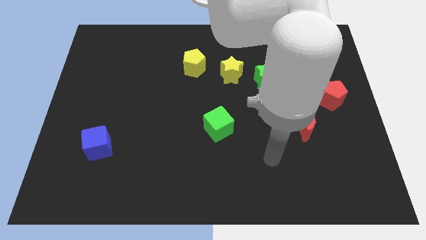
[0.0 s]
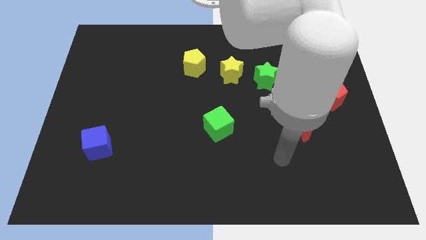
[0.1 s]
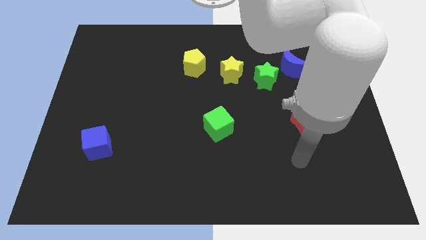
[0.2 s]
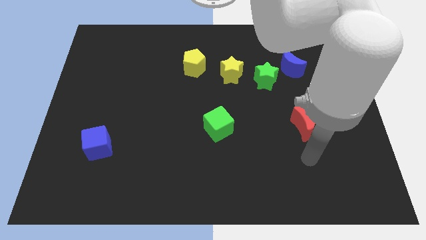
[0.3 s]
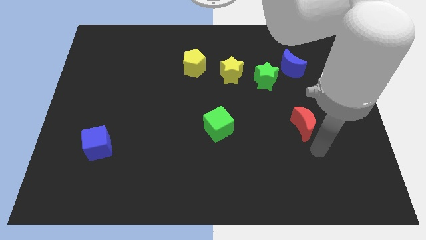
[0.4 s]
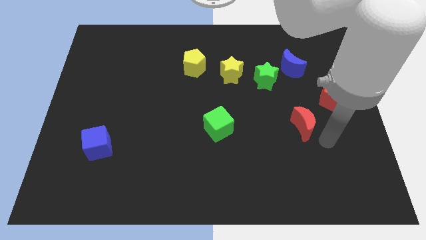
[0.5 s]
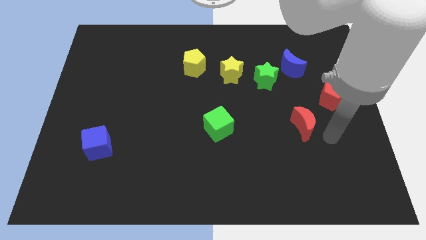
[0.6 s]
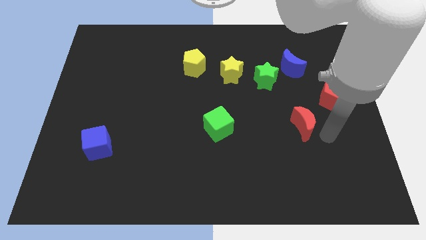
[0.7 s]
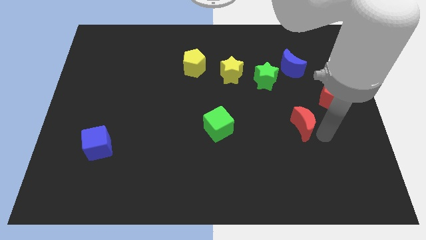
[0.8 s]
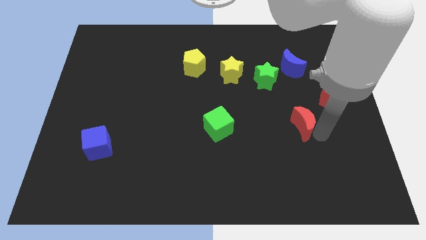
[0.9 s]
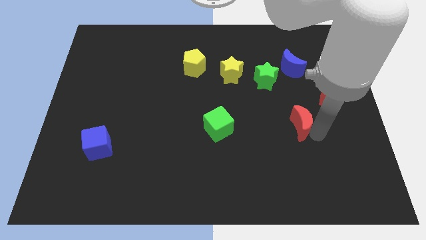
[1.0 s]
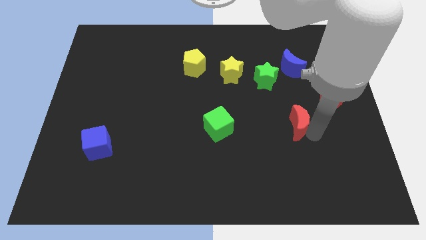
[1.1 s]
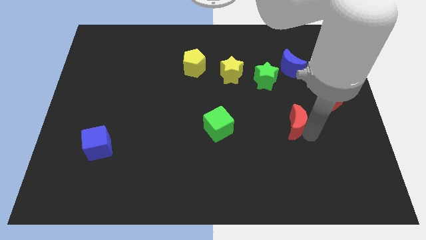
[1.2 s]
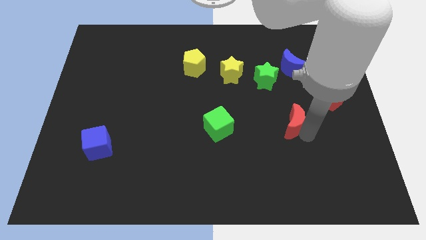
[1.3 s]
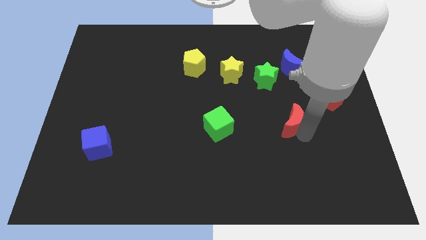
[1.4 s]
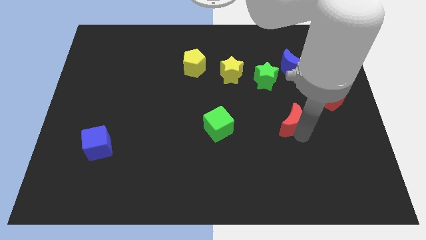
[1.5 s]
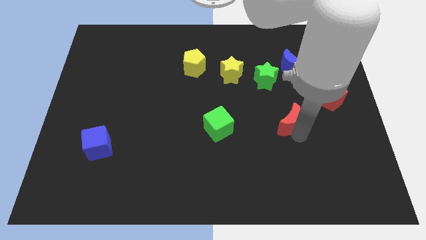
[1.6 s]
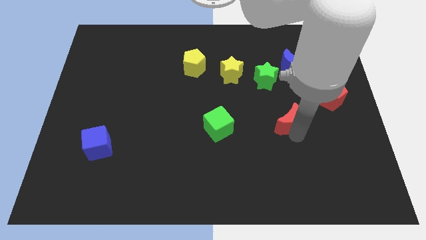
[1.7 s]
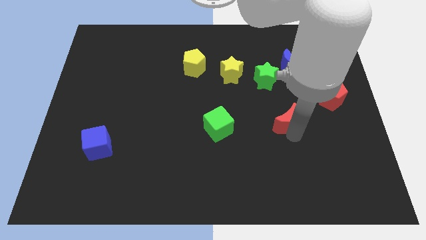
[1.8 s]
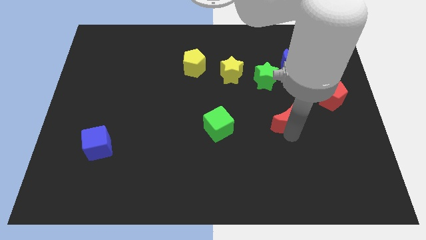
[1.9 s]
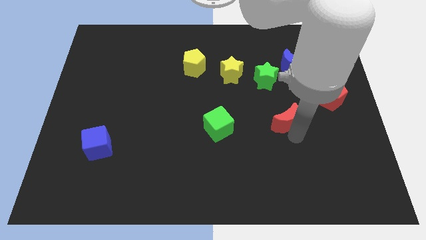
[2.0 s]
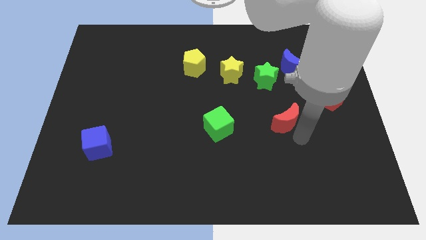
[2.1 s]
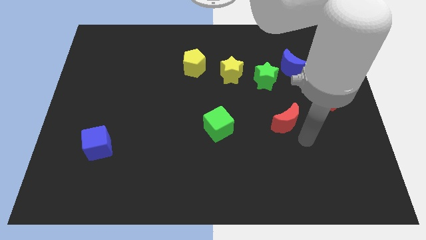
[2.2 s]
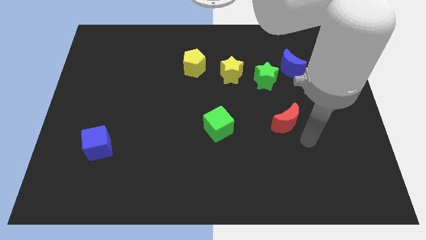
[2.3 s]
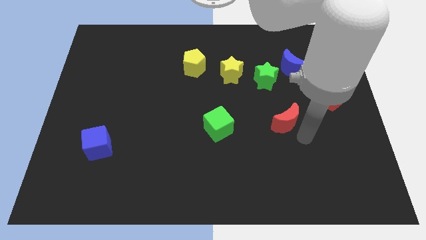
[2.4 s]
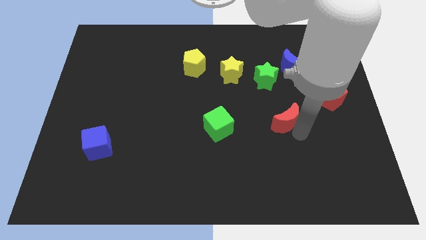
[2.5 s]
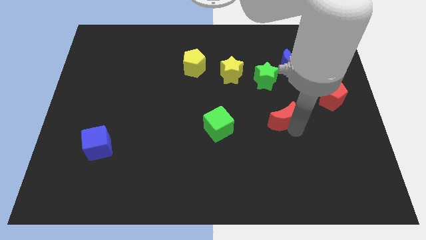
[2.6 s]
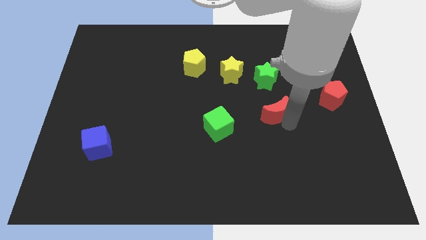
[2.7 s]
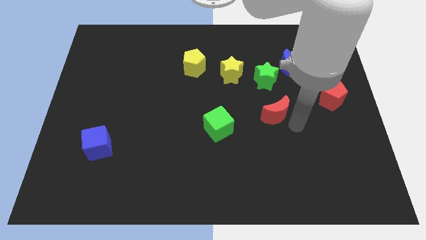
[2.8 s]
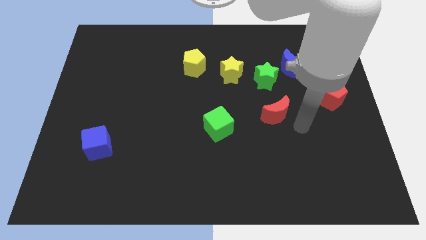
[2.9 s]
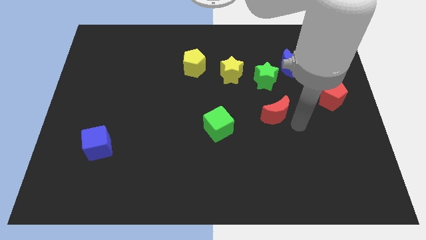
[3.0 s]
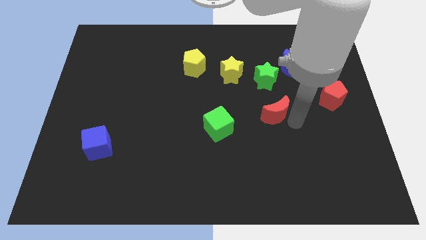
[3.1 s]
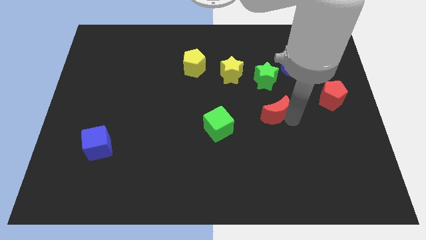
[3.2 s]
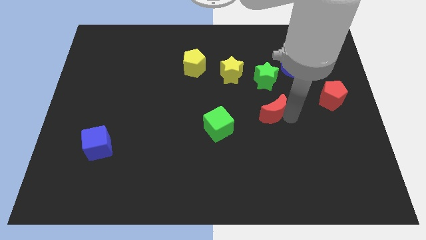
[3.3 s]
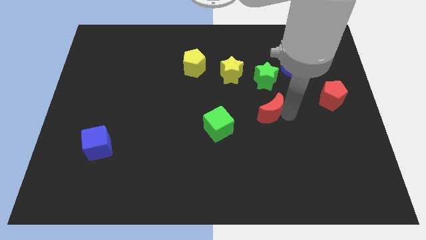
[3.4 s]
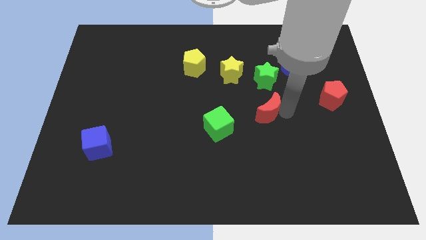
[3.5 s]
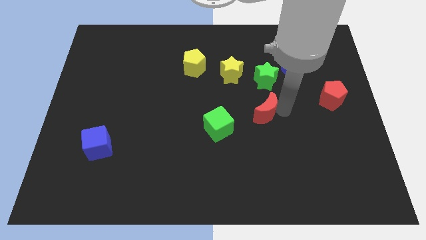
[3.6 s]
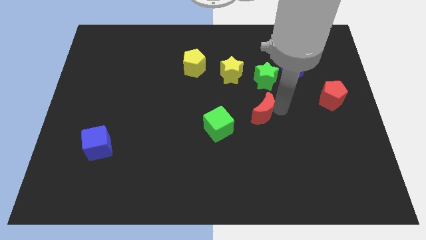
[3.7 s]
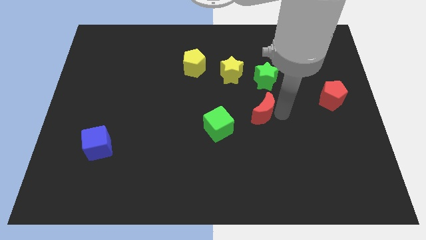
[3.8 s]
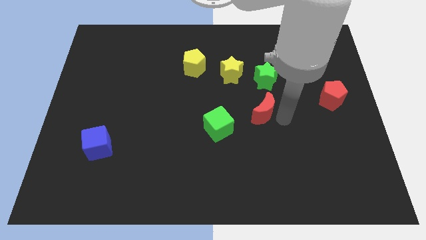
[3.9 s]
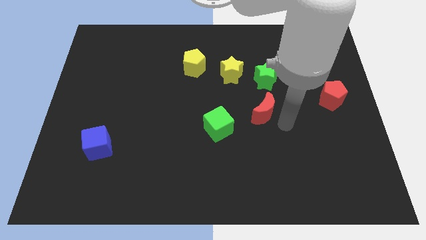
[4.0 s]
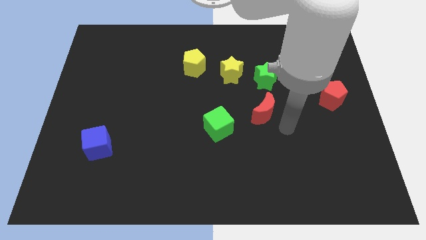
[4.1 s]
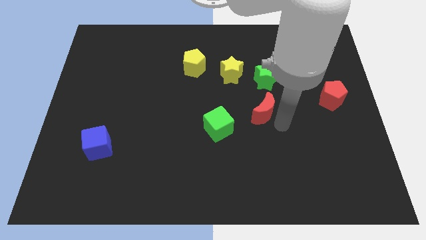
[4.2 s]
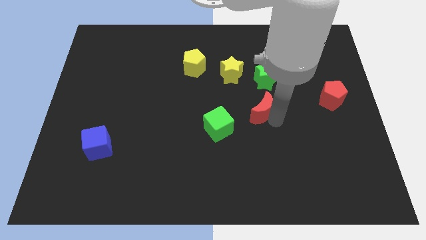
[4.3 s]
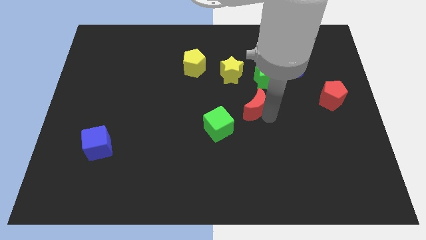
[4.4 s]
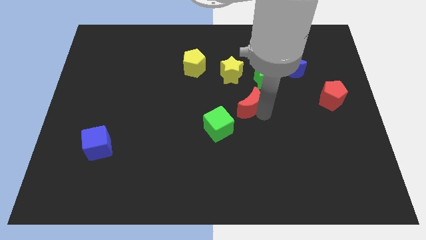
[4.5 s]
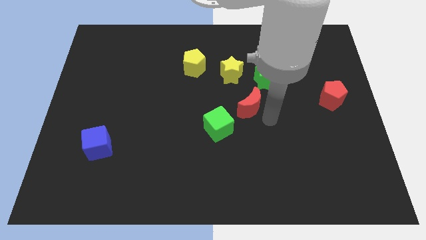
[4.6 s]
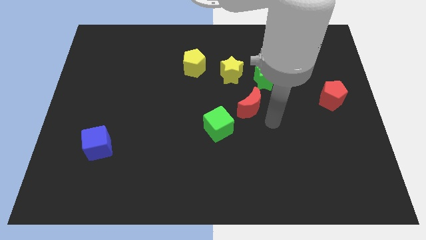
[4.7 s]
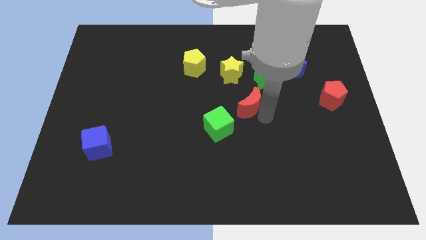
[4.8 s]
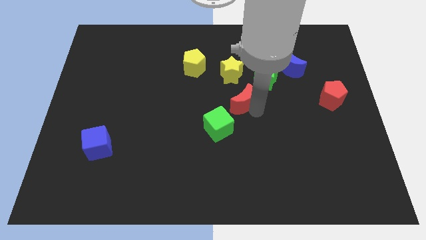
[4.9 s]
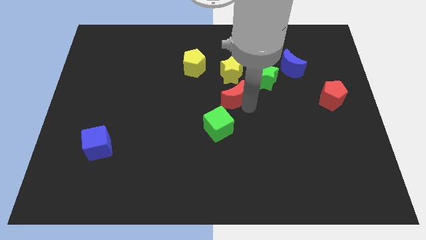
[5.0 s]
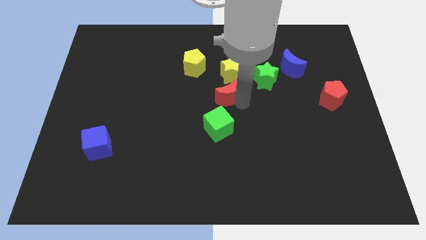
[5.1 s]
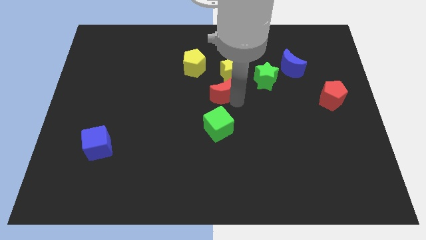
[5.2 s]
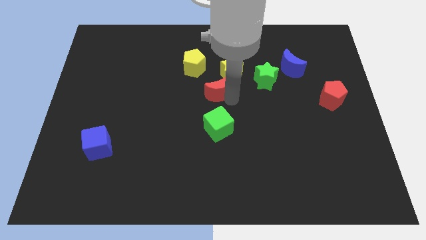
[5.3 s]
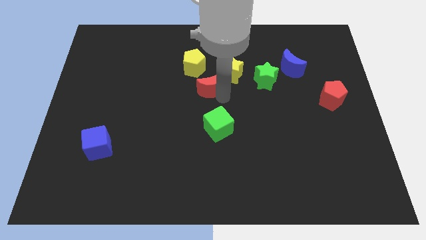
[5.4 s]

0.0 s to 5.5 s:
move the red moon diagonally up and left

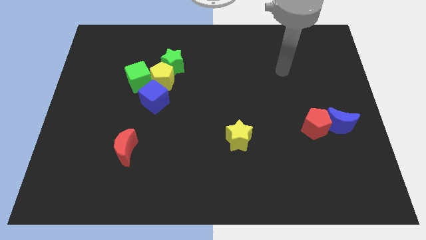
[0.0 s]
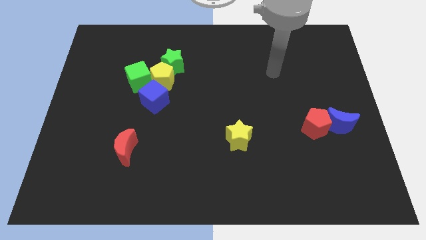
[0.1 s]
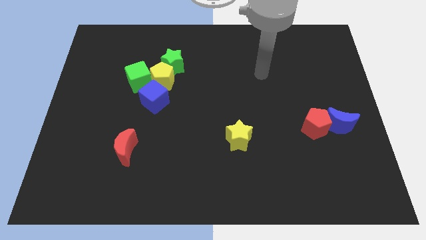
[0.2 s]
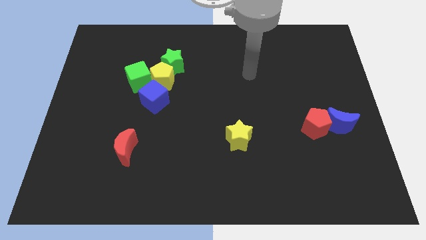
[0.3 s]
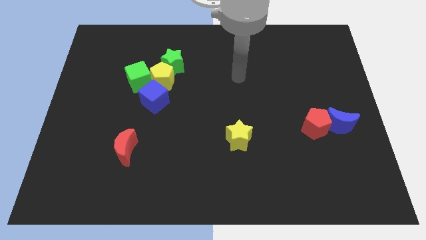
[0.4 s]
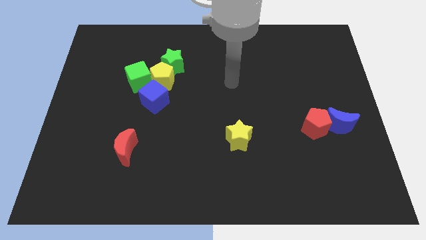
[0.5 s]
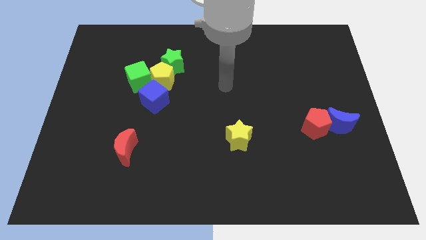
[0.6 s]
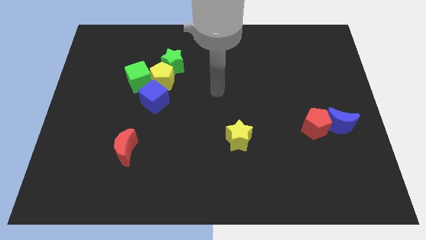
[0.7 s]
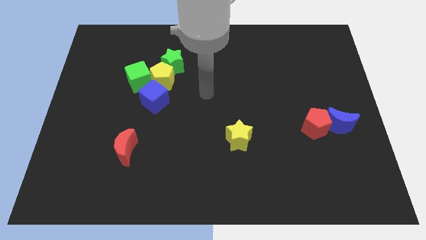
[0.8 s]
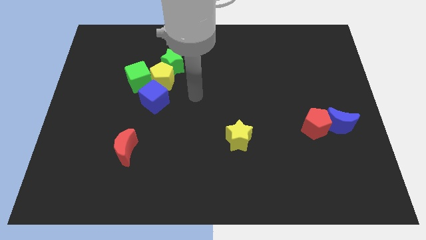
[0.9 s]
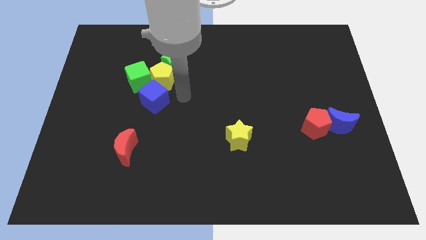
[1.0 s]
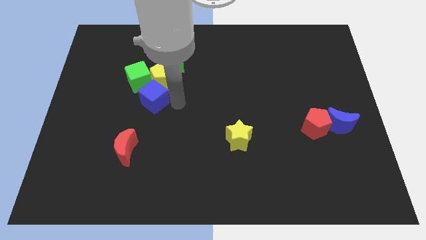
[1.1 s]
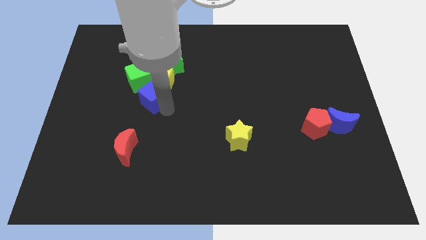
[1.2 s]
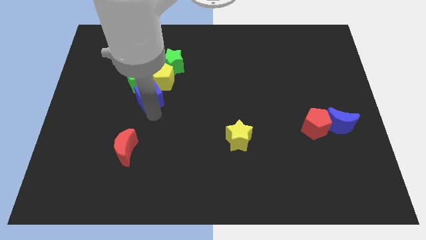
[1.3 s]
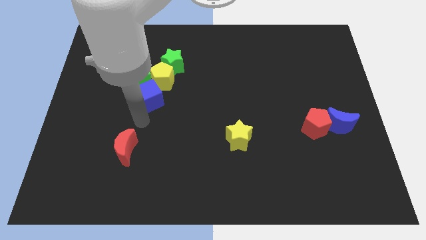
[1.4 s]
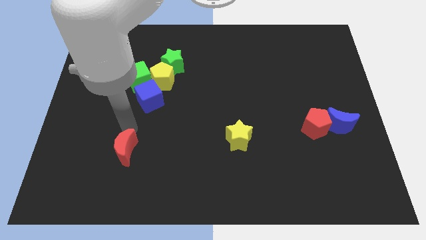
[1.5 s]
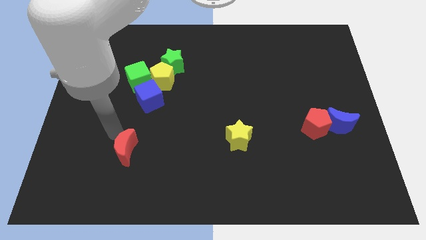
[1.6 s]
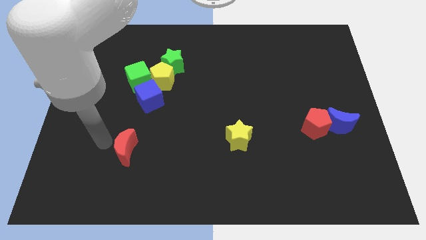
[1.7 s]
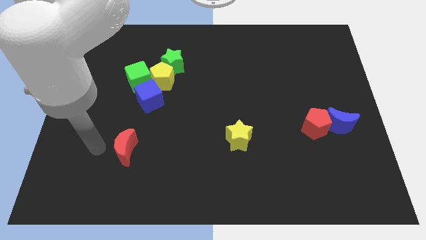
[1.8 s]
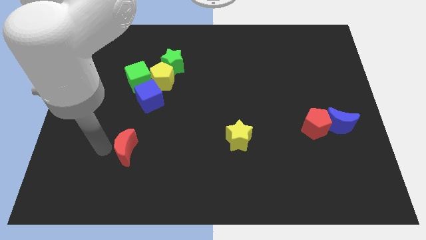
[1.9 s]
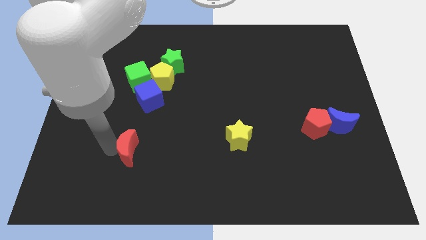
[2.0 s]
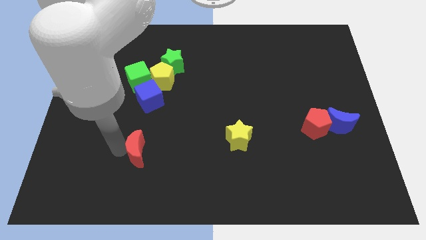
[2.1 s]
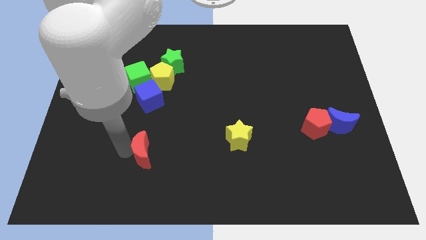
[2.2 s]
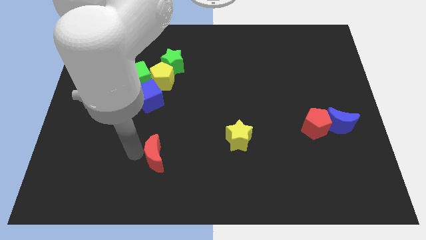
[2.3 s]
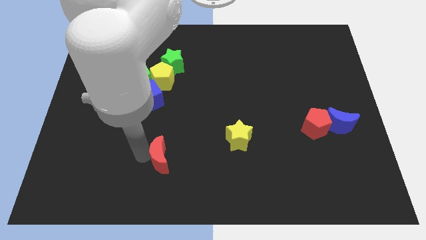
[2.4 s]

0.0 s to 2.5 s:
slightly slide the red moon to the right
